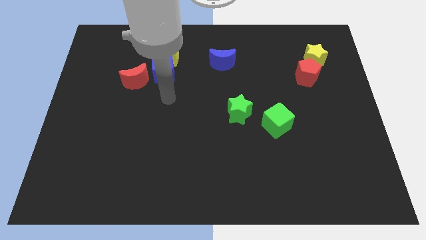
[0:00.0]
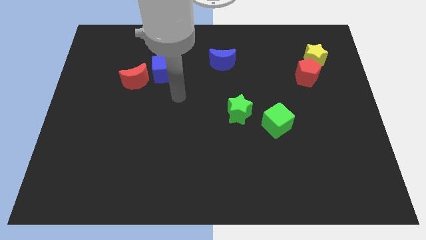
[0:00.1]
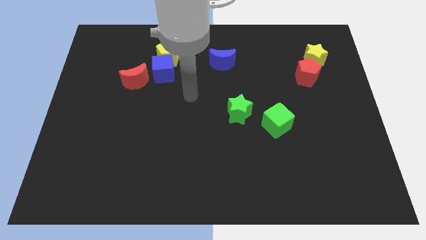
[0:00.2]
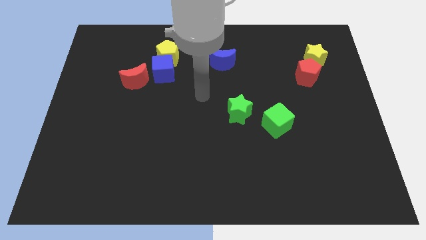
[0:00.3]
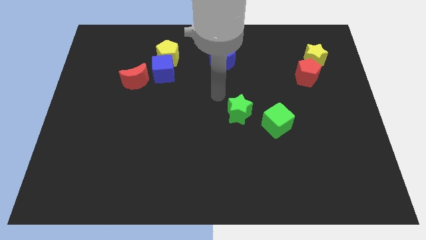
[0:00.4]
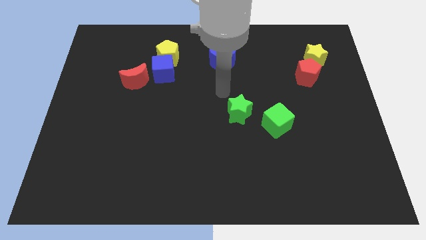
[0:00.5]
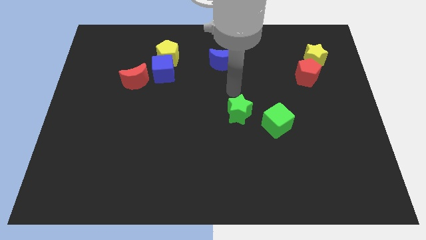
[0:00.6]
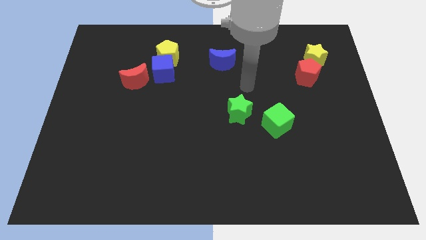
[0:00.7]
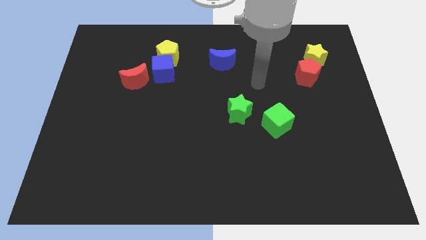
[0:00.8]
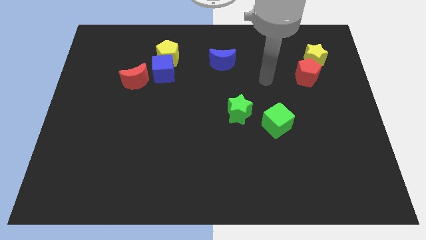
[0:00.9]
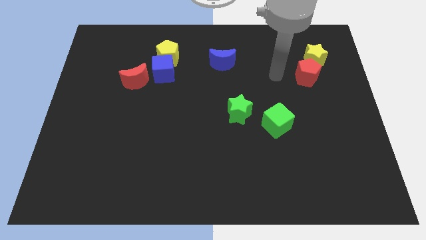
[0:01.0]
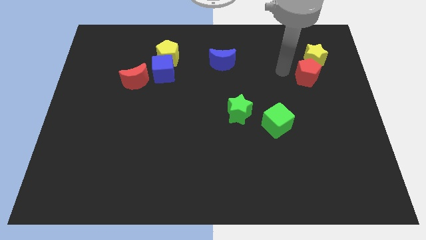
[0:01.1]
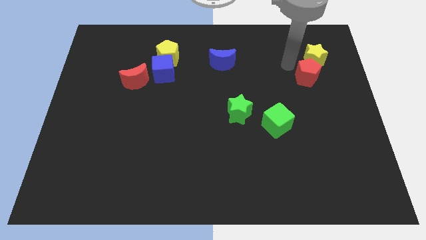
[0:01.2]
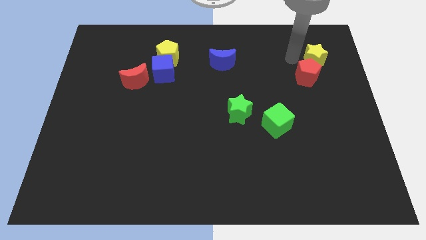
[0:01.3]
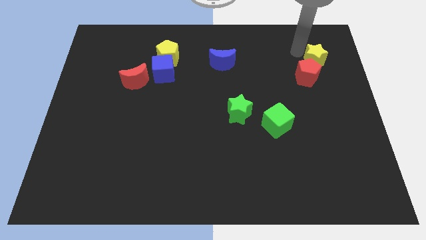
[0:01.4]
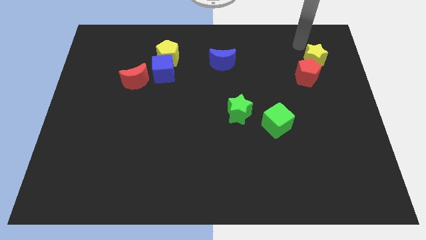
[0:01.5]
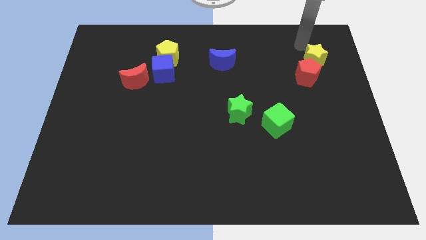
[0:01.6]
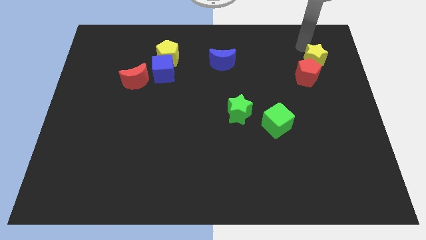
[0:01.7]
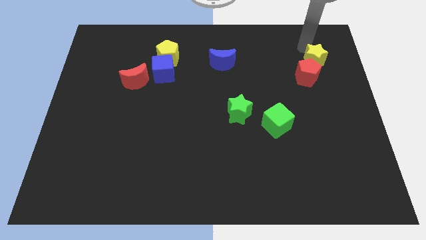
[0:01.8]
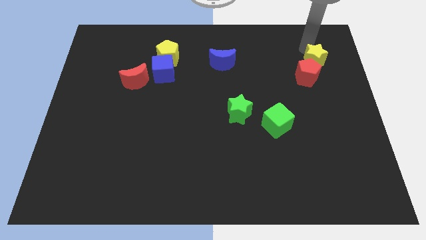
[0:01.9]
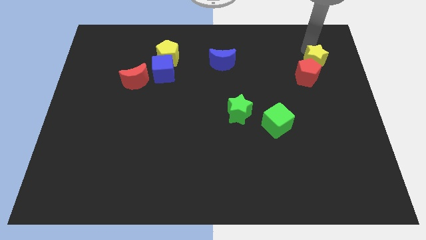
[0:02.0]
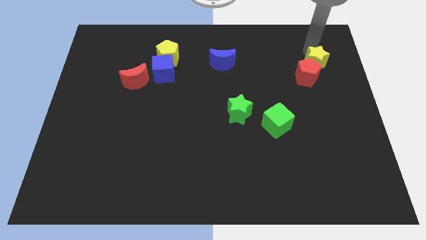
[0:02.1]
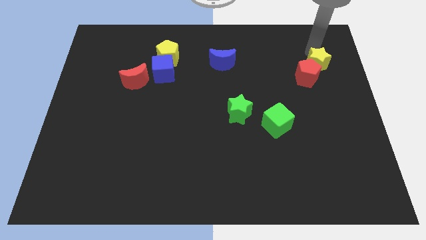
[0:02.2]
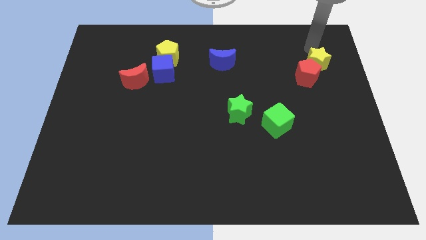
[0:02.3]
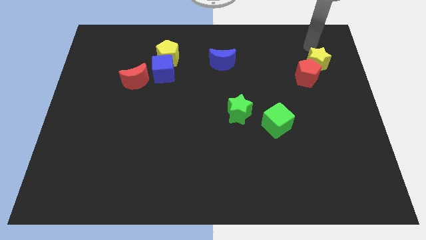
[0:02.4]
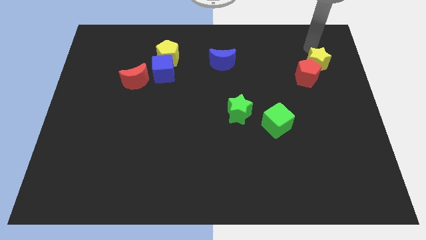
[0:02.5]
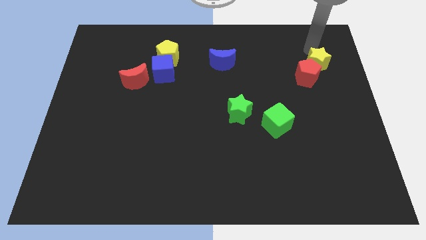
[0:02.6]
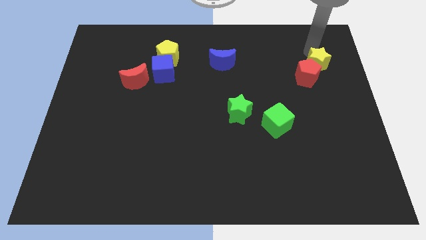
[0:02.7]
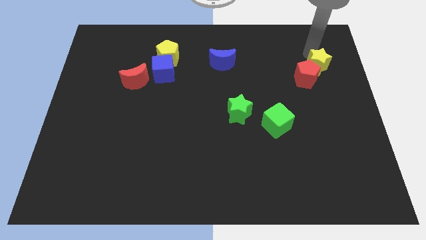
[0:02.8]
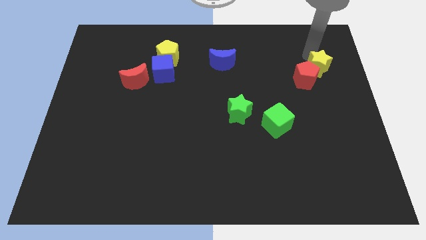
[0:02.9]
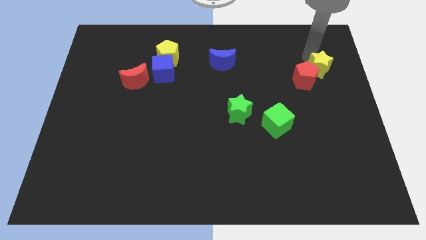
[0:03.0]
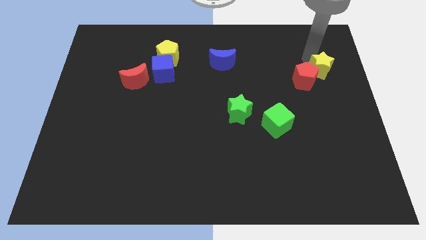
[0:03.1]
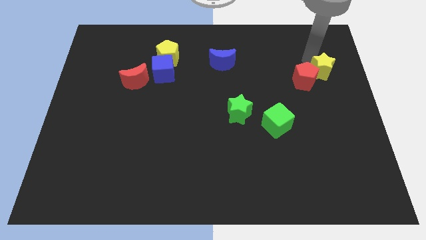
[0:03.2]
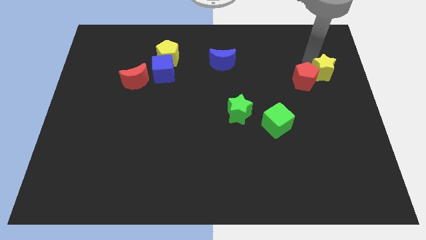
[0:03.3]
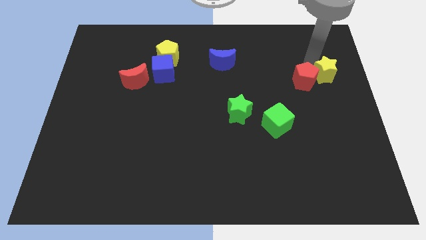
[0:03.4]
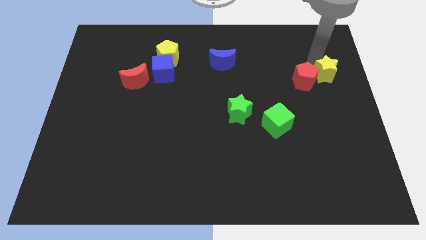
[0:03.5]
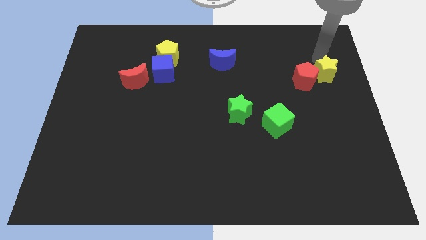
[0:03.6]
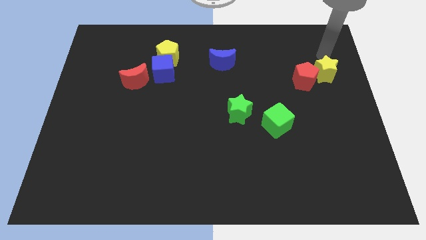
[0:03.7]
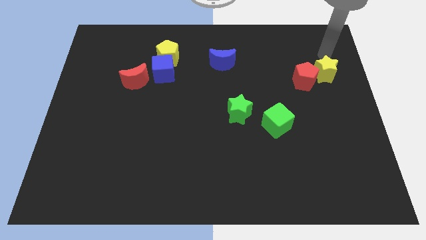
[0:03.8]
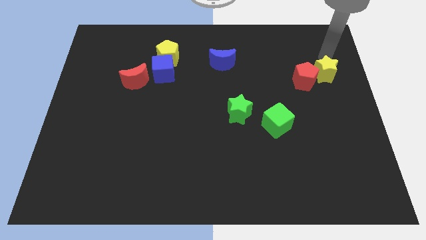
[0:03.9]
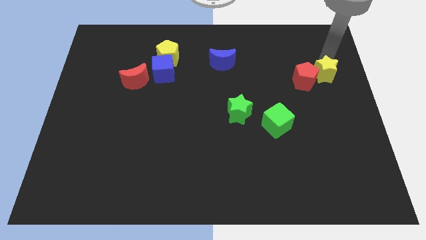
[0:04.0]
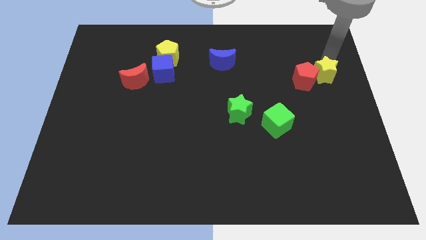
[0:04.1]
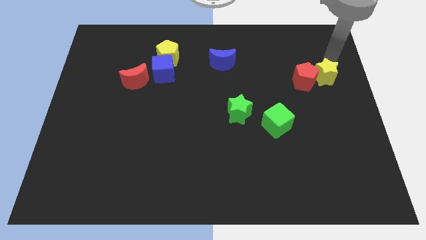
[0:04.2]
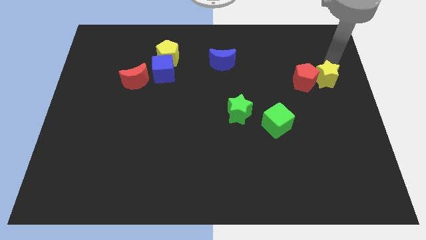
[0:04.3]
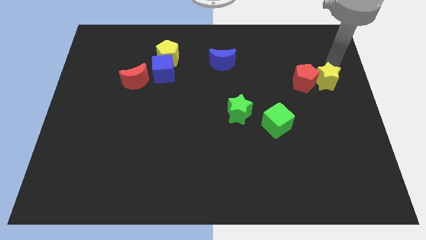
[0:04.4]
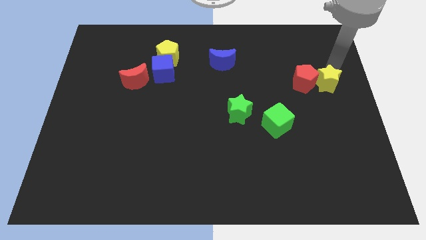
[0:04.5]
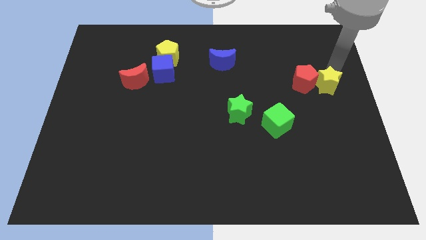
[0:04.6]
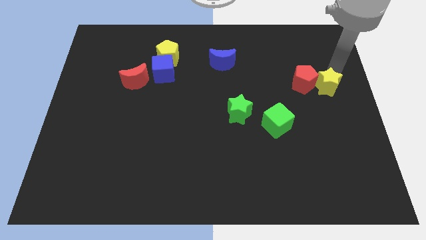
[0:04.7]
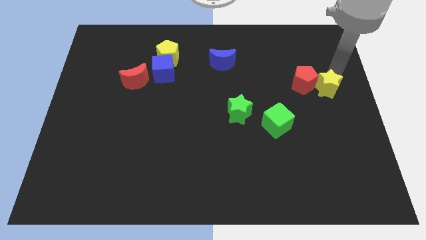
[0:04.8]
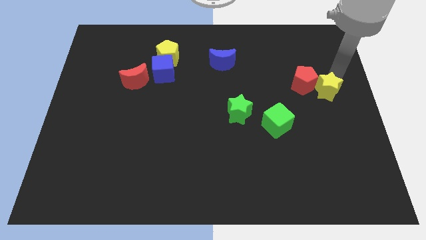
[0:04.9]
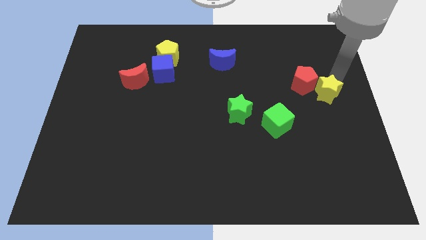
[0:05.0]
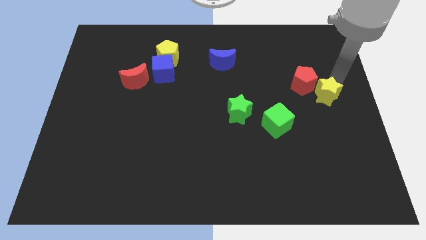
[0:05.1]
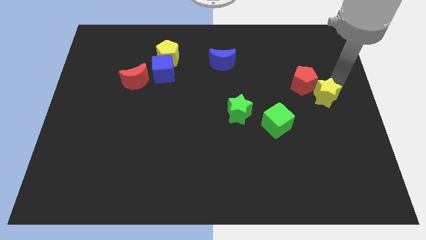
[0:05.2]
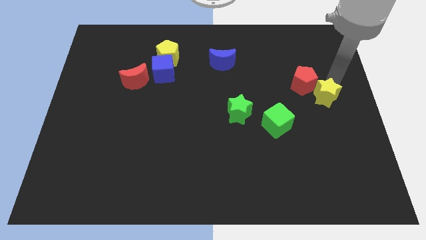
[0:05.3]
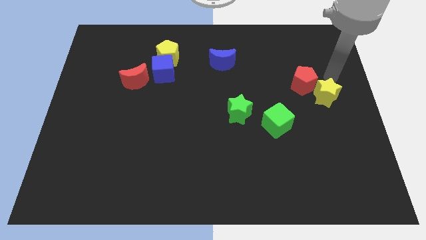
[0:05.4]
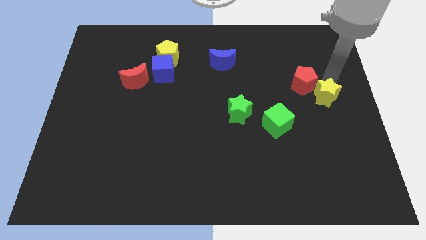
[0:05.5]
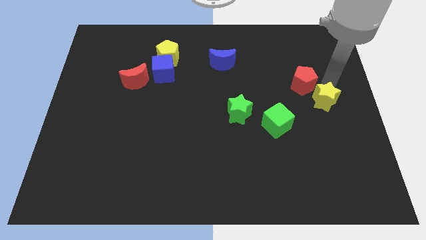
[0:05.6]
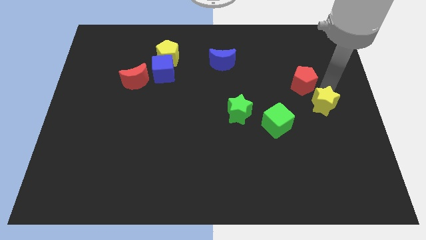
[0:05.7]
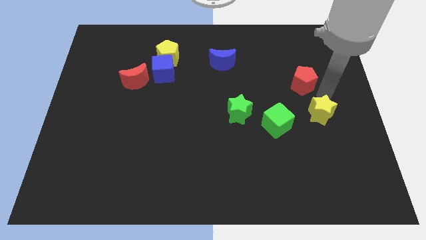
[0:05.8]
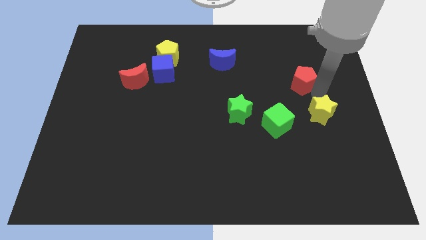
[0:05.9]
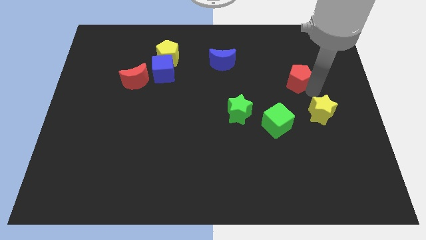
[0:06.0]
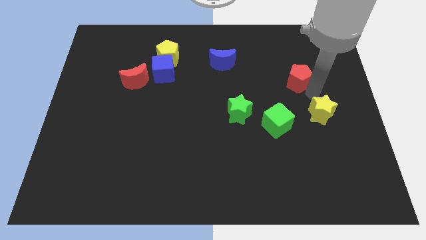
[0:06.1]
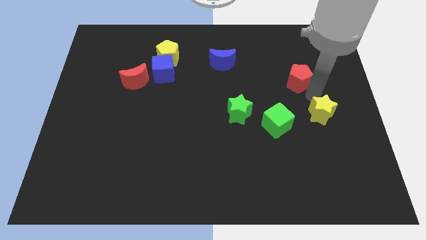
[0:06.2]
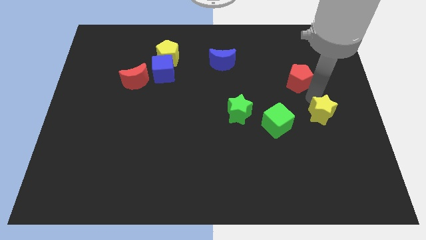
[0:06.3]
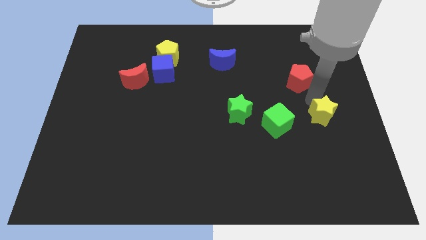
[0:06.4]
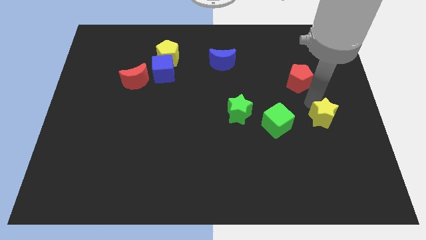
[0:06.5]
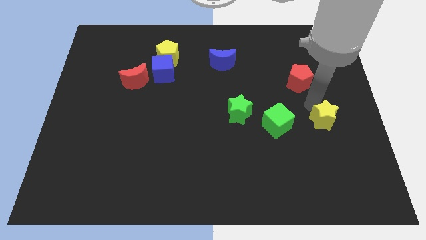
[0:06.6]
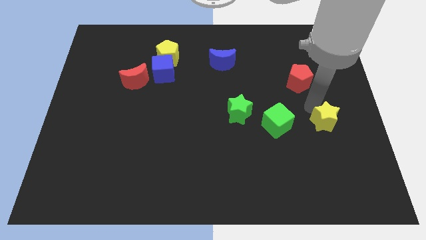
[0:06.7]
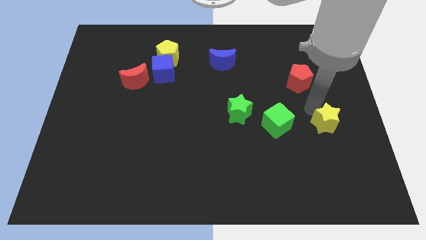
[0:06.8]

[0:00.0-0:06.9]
push the yellow star down

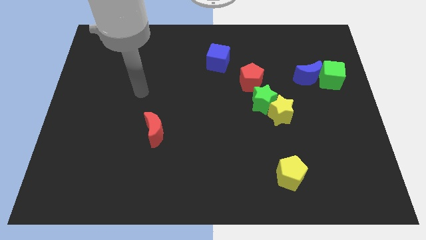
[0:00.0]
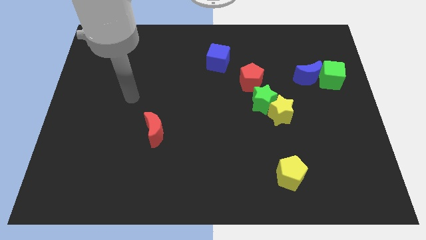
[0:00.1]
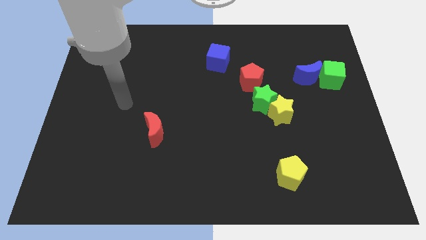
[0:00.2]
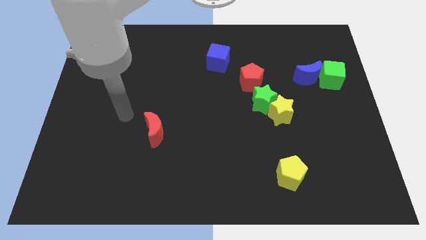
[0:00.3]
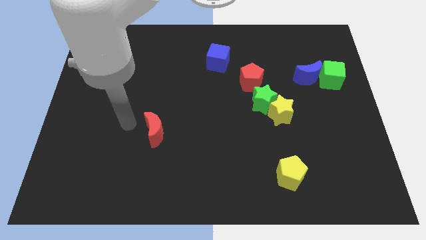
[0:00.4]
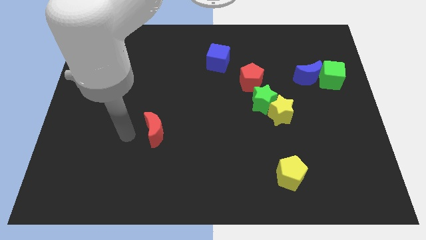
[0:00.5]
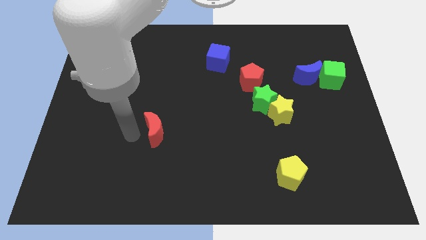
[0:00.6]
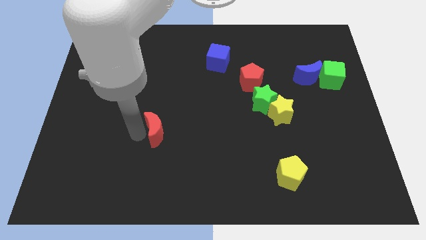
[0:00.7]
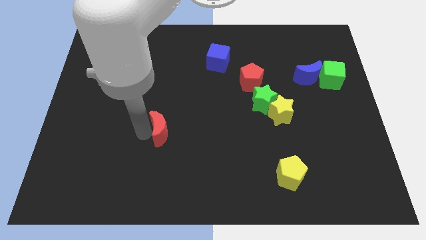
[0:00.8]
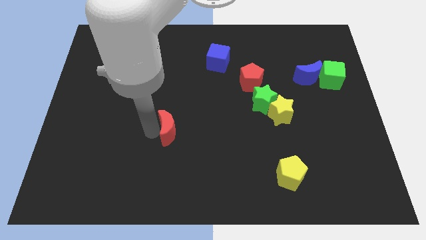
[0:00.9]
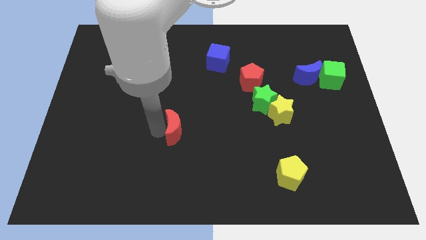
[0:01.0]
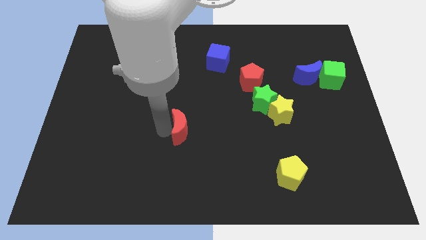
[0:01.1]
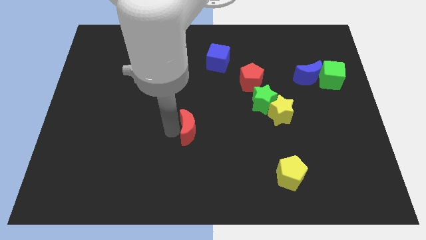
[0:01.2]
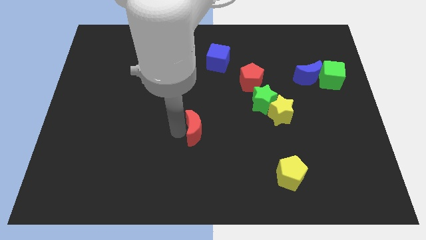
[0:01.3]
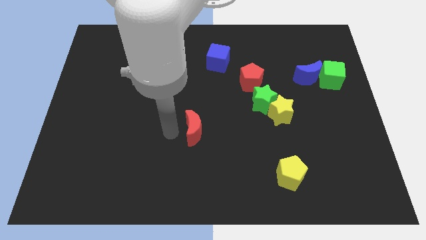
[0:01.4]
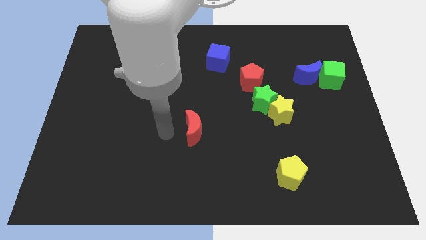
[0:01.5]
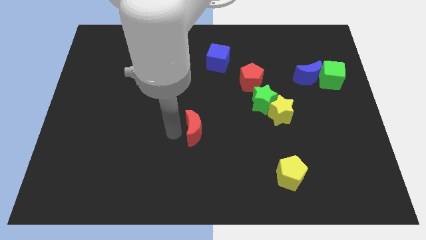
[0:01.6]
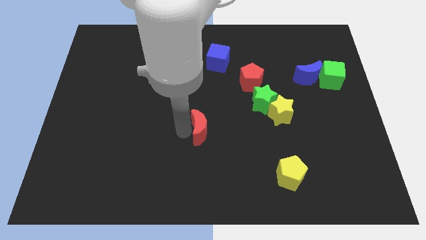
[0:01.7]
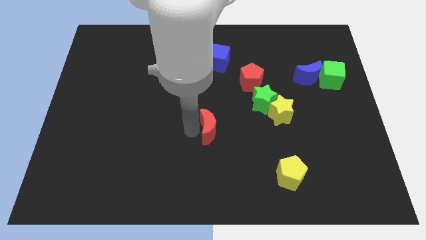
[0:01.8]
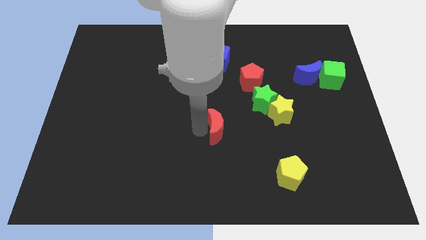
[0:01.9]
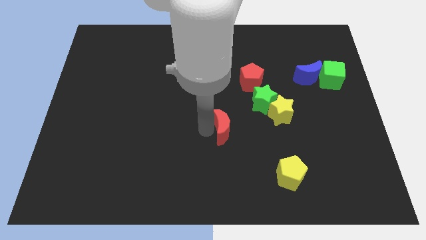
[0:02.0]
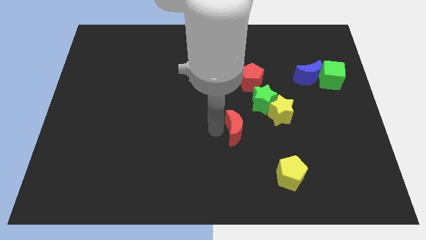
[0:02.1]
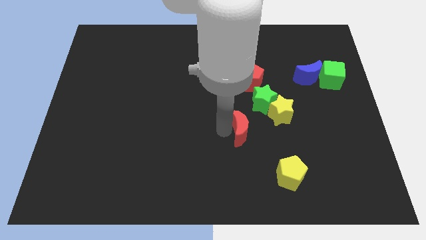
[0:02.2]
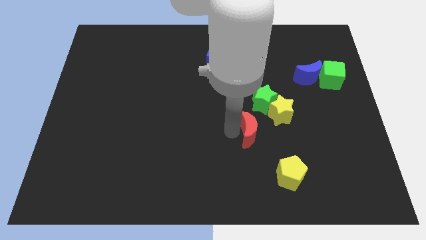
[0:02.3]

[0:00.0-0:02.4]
slide the red moon right
